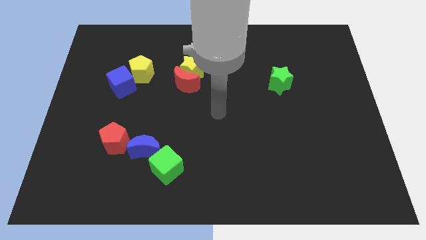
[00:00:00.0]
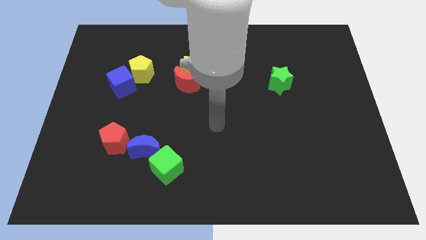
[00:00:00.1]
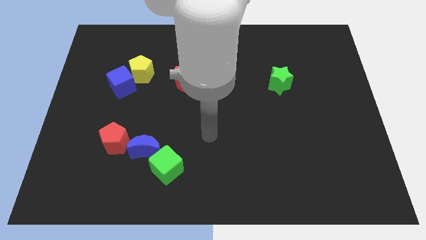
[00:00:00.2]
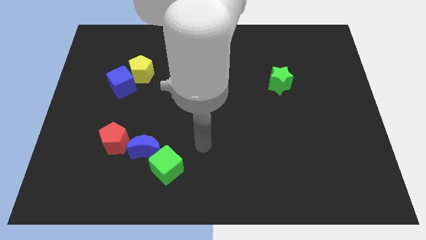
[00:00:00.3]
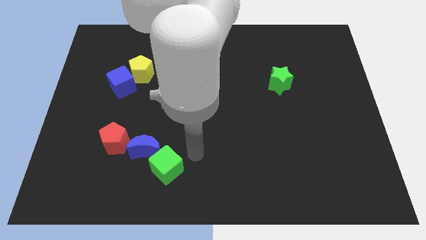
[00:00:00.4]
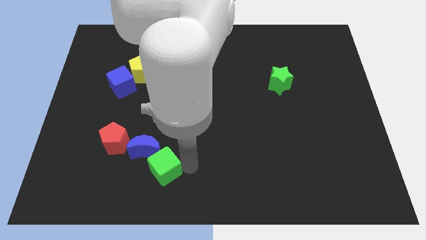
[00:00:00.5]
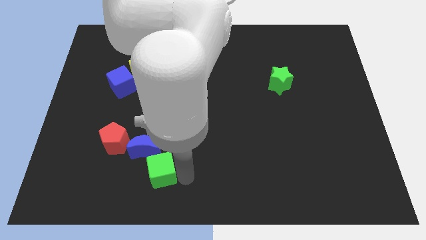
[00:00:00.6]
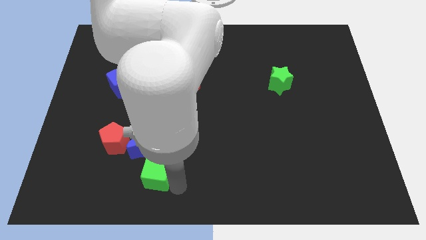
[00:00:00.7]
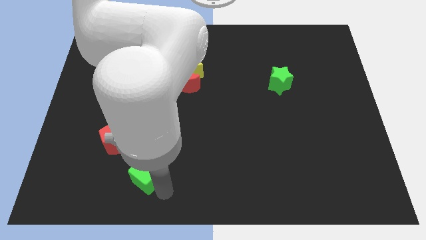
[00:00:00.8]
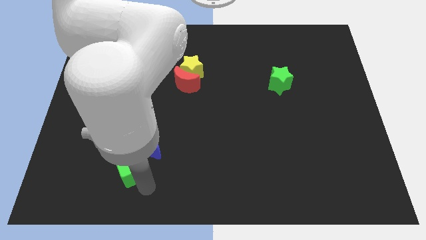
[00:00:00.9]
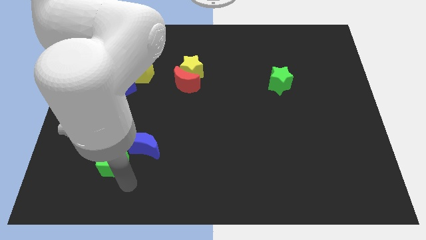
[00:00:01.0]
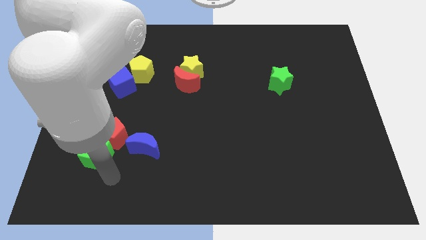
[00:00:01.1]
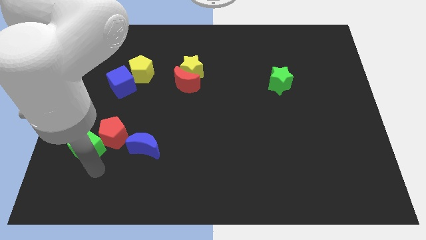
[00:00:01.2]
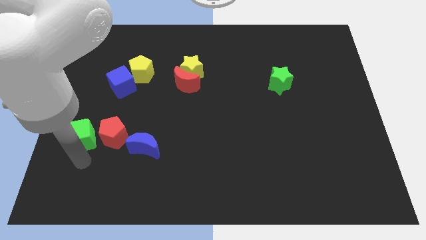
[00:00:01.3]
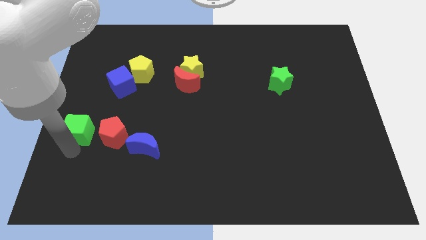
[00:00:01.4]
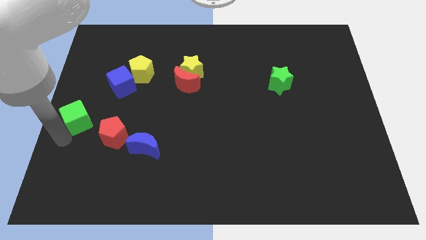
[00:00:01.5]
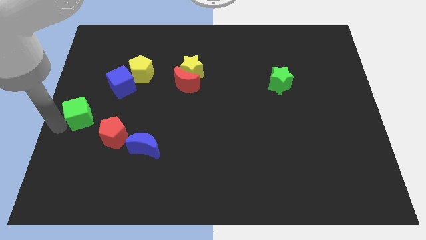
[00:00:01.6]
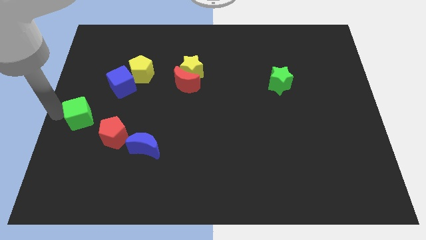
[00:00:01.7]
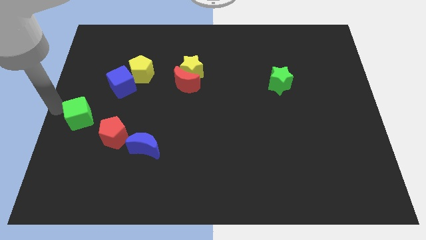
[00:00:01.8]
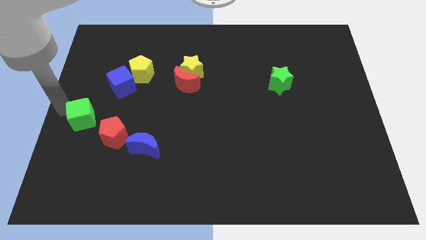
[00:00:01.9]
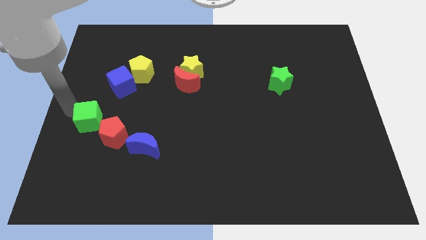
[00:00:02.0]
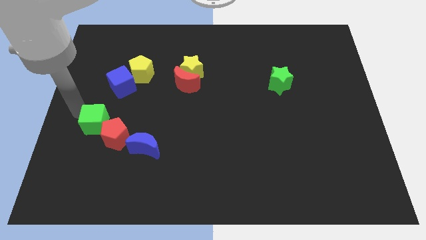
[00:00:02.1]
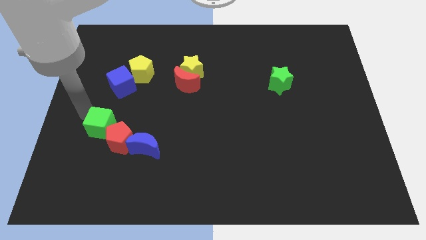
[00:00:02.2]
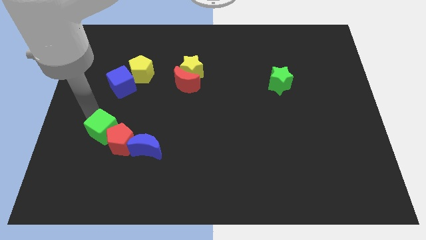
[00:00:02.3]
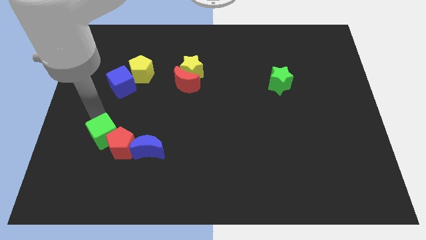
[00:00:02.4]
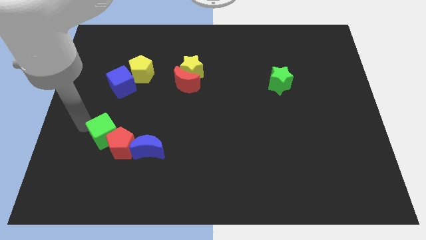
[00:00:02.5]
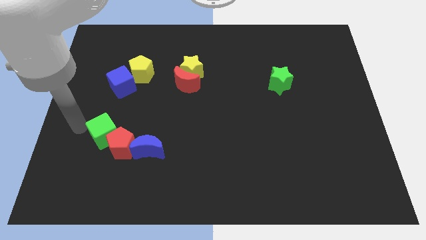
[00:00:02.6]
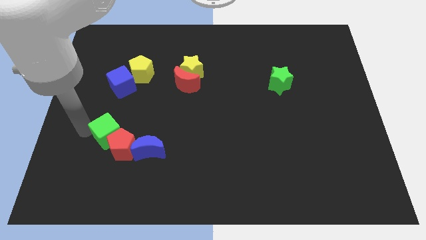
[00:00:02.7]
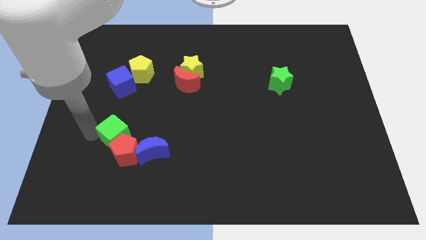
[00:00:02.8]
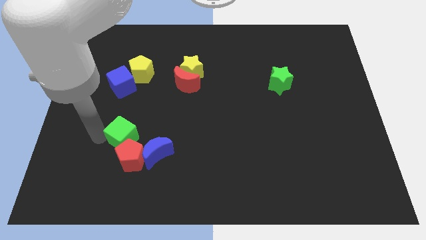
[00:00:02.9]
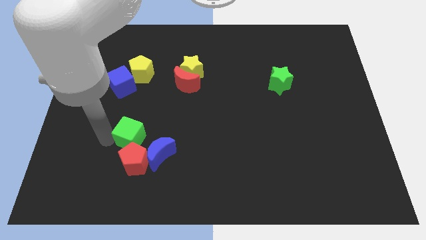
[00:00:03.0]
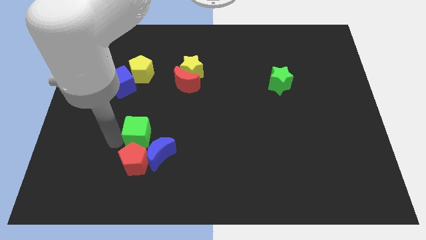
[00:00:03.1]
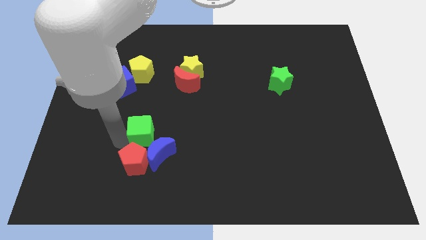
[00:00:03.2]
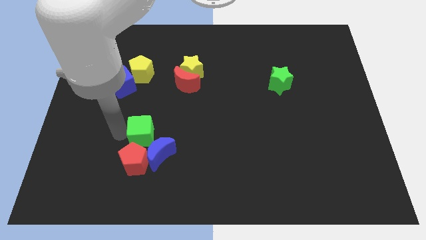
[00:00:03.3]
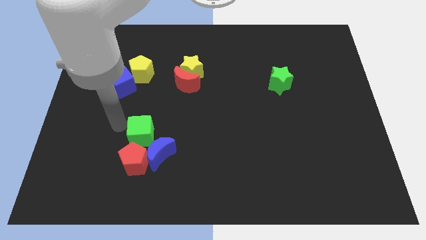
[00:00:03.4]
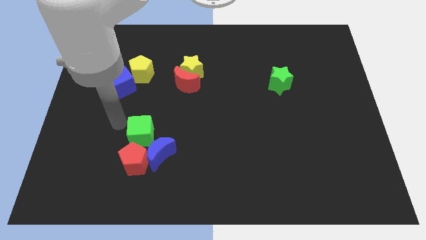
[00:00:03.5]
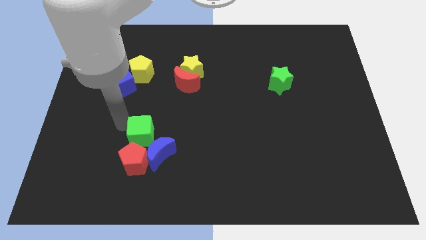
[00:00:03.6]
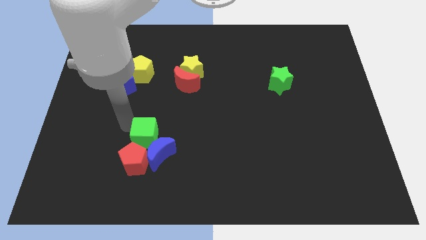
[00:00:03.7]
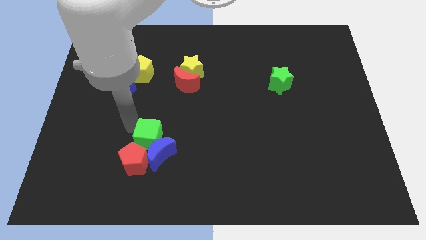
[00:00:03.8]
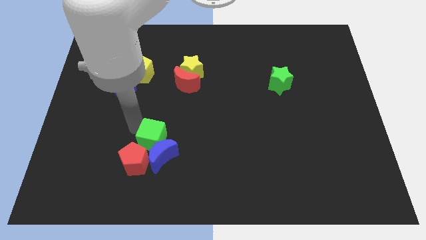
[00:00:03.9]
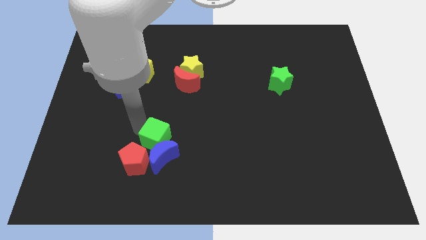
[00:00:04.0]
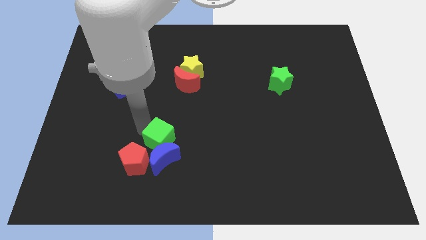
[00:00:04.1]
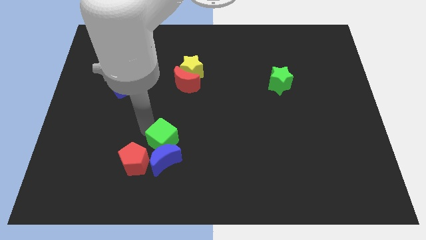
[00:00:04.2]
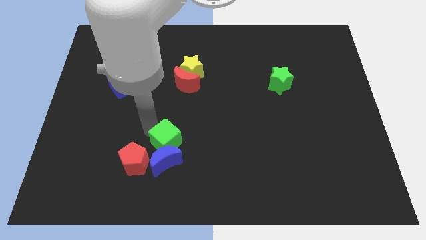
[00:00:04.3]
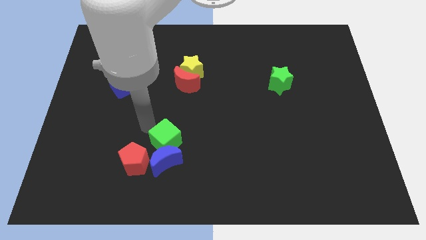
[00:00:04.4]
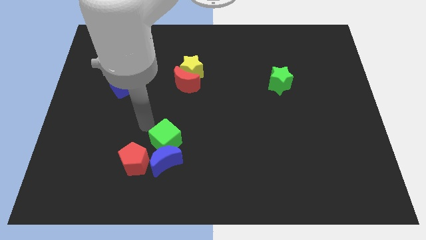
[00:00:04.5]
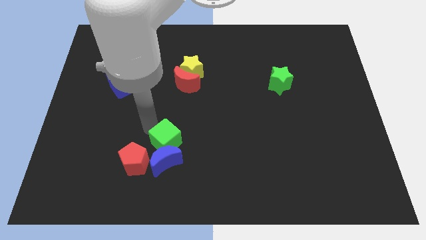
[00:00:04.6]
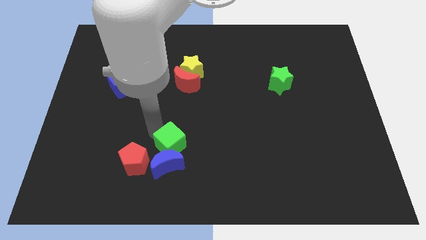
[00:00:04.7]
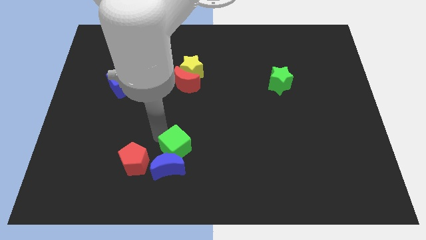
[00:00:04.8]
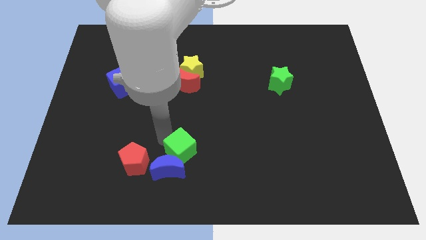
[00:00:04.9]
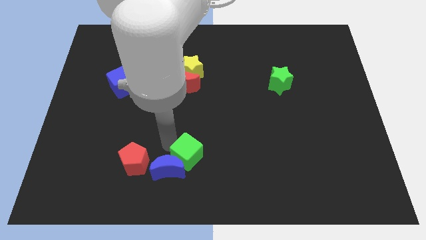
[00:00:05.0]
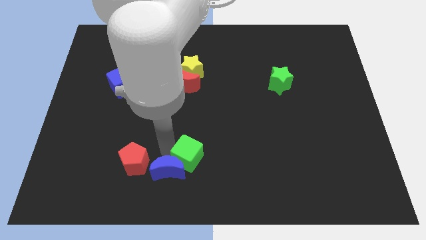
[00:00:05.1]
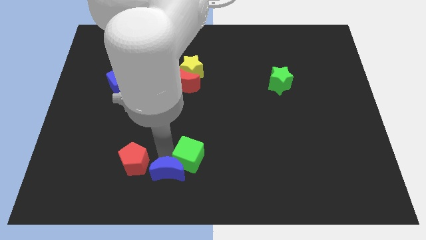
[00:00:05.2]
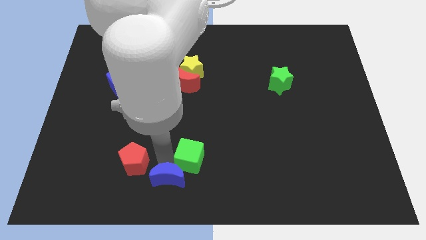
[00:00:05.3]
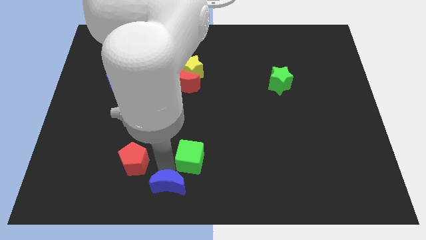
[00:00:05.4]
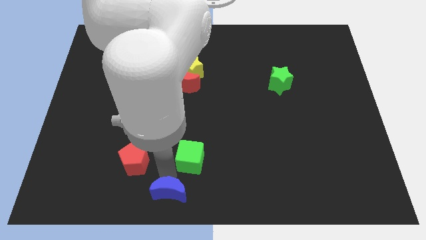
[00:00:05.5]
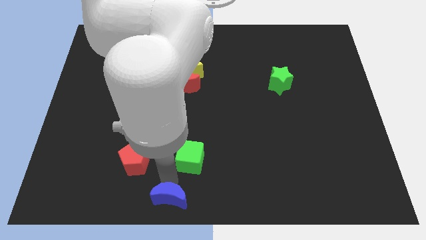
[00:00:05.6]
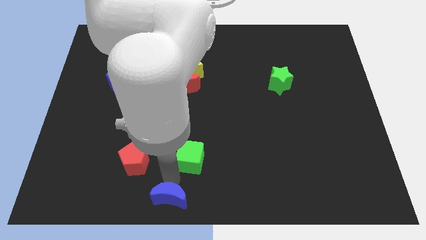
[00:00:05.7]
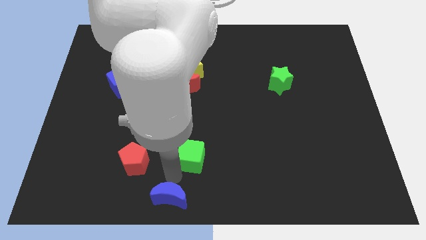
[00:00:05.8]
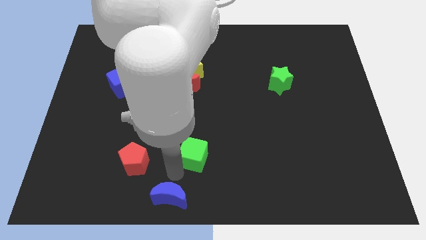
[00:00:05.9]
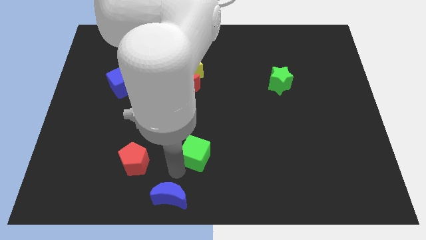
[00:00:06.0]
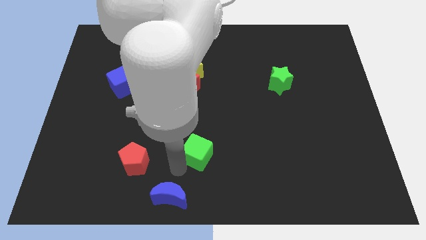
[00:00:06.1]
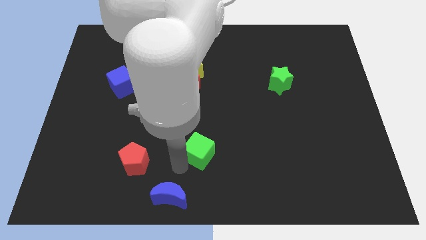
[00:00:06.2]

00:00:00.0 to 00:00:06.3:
slightly slide the green cube diagonally up and right

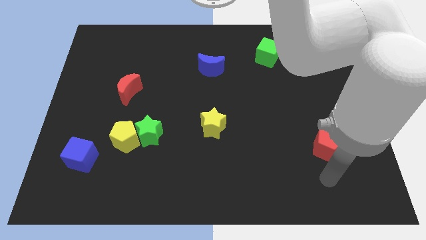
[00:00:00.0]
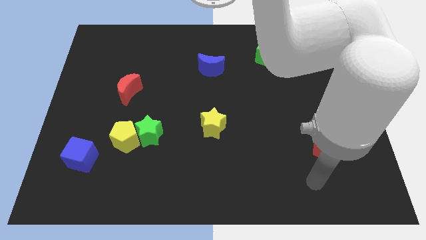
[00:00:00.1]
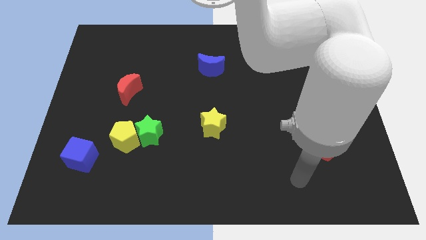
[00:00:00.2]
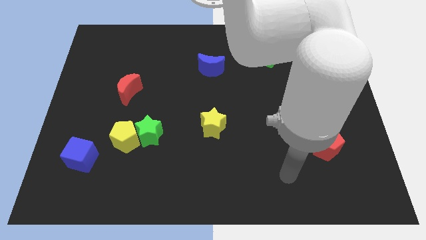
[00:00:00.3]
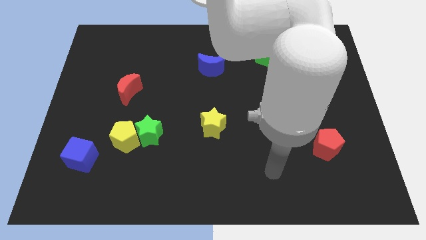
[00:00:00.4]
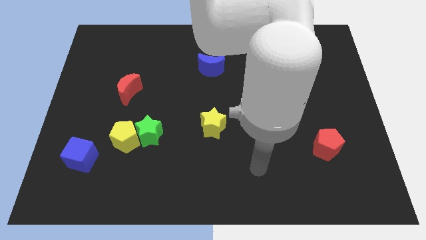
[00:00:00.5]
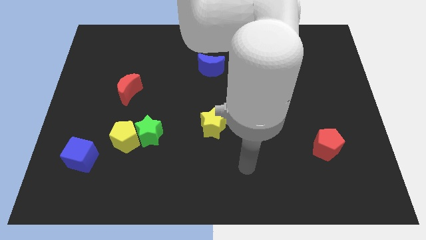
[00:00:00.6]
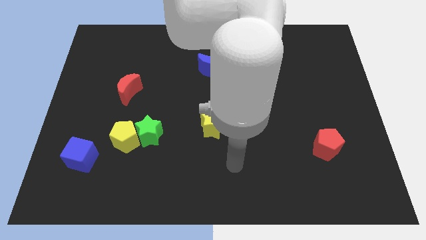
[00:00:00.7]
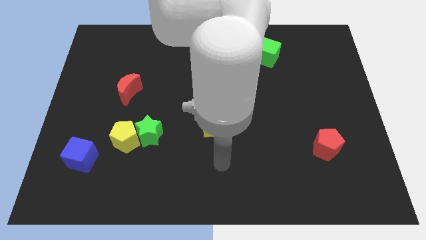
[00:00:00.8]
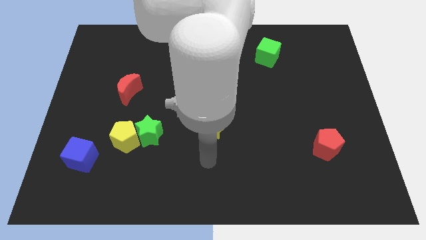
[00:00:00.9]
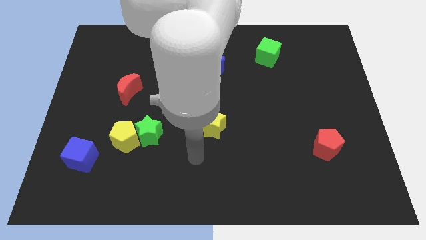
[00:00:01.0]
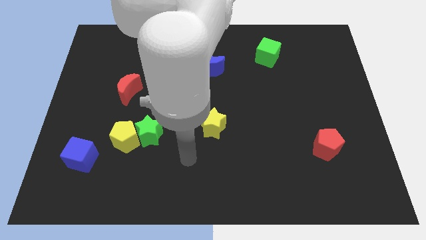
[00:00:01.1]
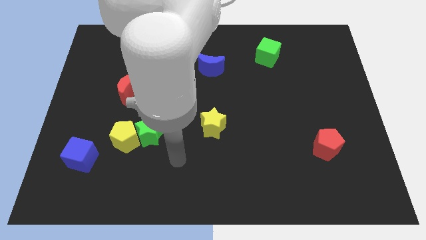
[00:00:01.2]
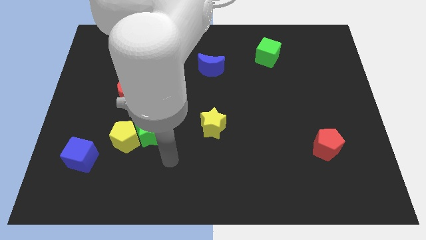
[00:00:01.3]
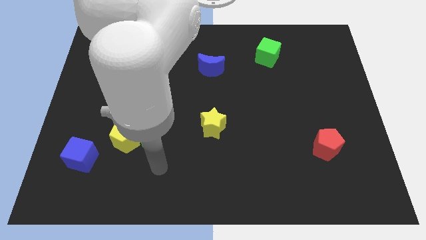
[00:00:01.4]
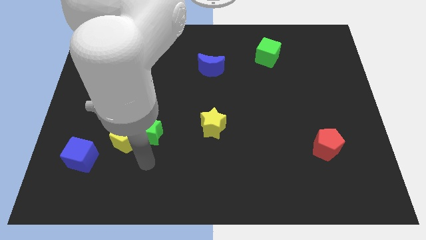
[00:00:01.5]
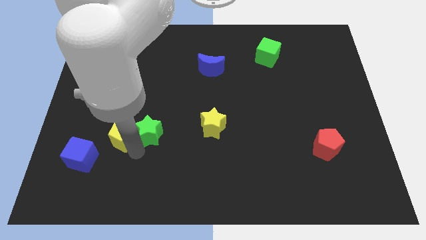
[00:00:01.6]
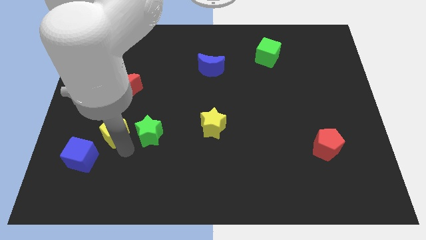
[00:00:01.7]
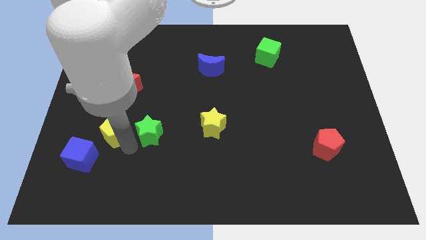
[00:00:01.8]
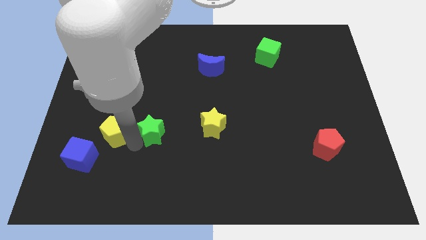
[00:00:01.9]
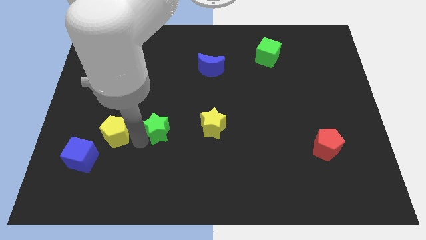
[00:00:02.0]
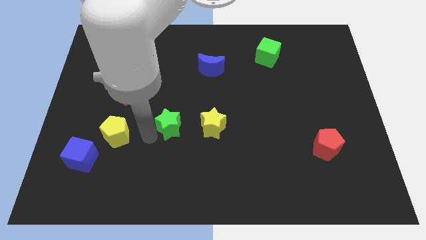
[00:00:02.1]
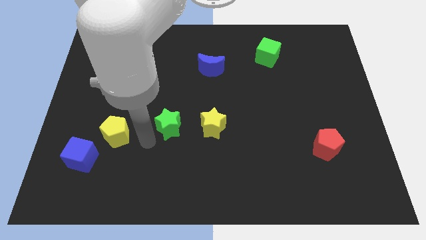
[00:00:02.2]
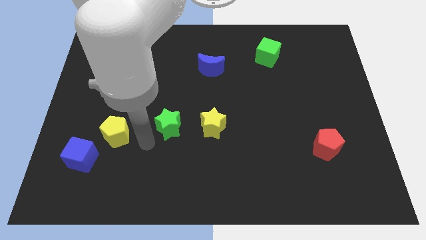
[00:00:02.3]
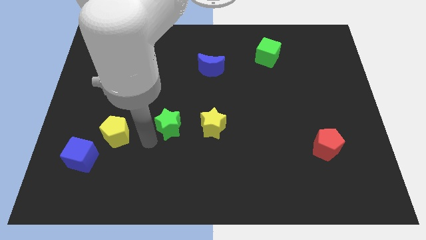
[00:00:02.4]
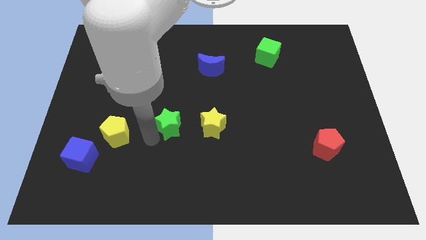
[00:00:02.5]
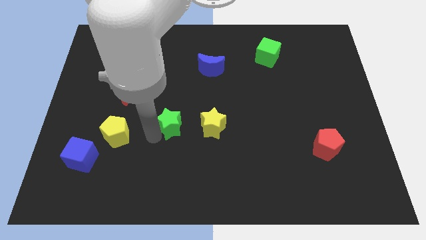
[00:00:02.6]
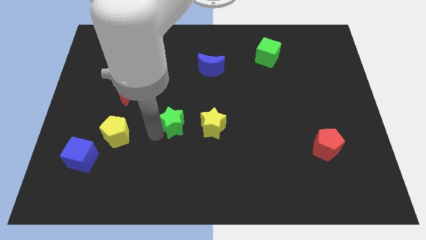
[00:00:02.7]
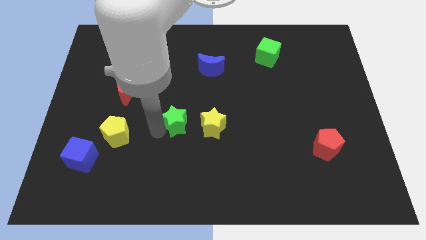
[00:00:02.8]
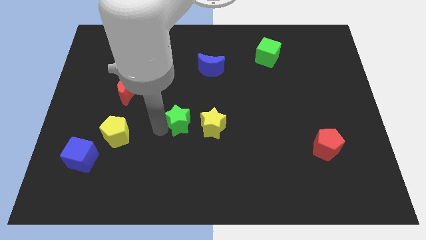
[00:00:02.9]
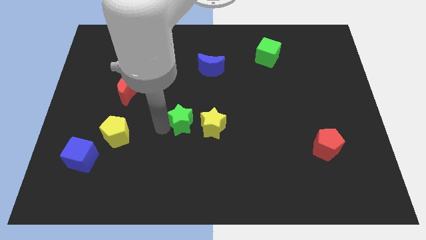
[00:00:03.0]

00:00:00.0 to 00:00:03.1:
slide the green star upwards and to the right diagonally a little
